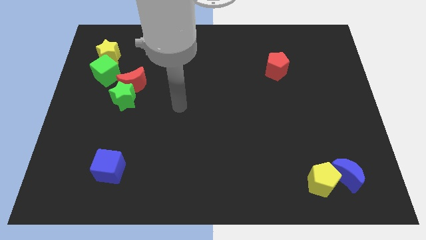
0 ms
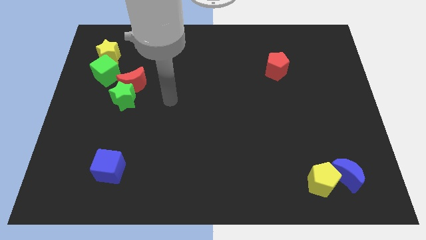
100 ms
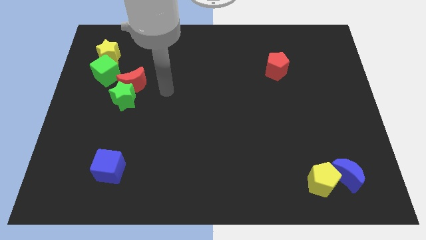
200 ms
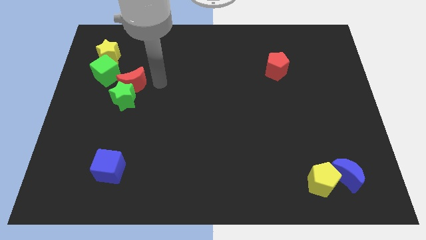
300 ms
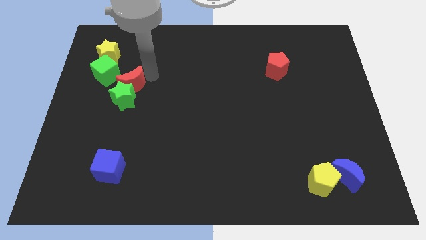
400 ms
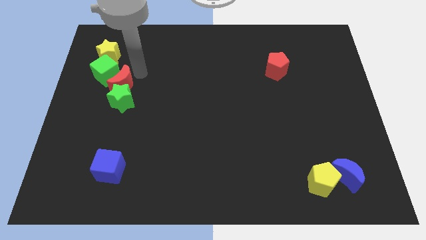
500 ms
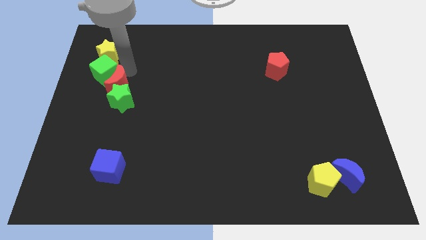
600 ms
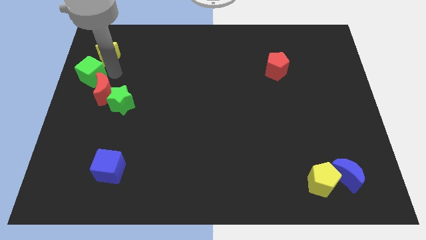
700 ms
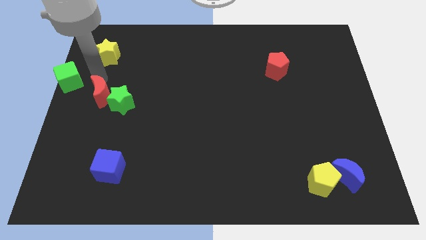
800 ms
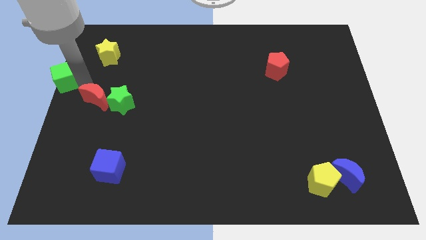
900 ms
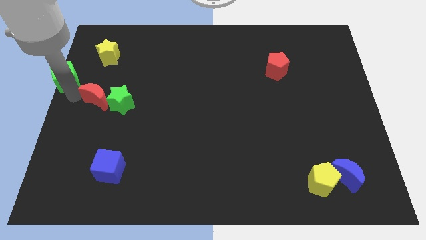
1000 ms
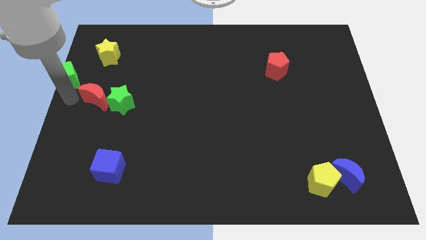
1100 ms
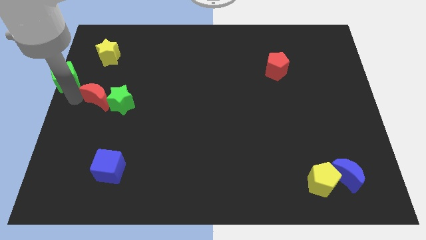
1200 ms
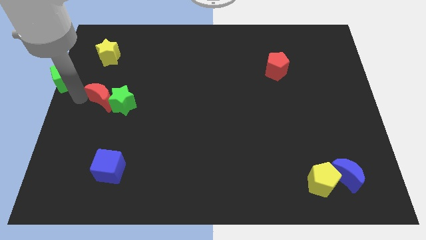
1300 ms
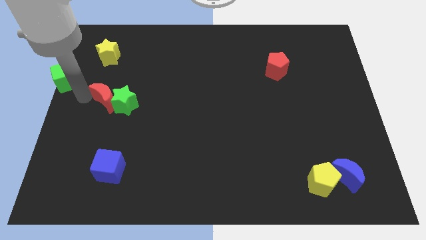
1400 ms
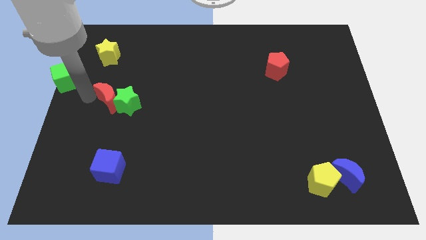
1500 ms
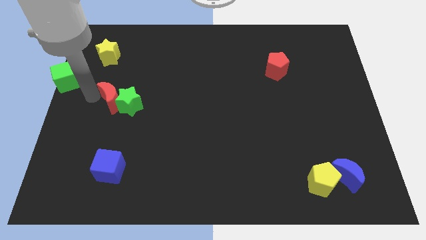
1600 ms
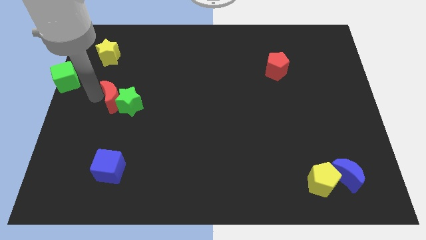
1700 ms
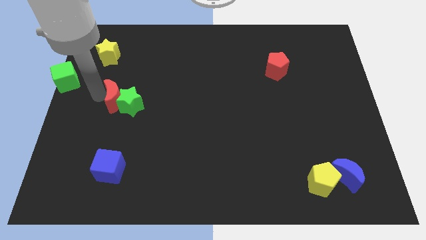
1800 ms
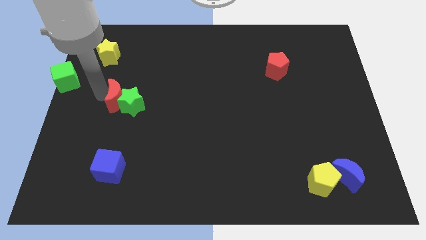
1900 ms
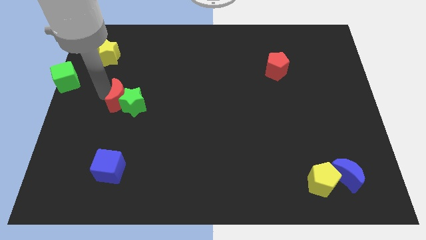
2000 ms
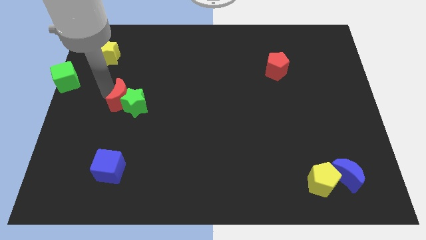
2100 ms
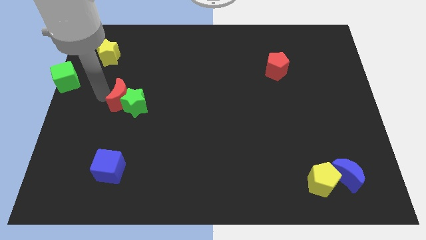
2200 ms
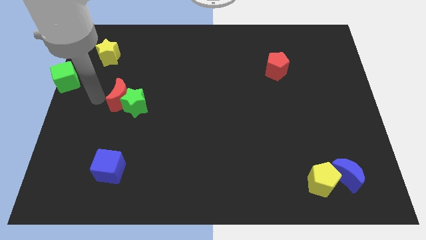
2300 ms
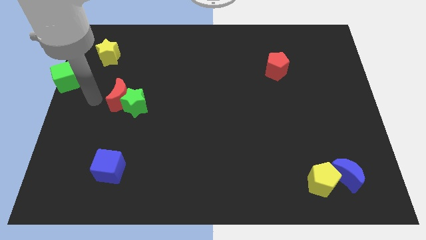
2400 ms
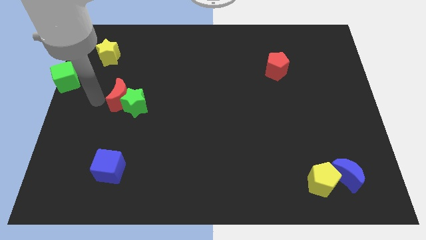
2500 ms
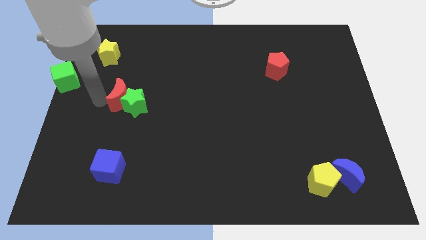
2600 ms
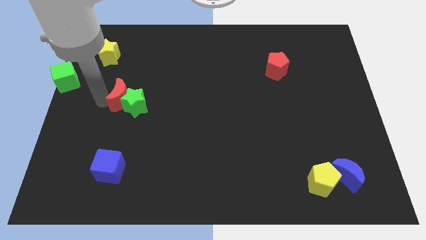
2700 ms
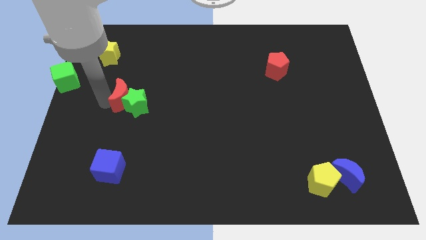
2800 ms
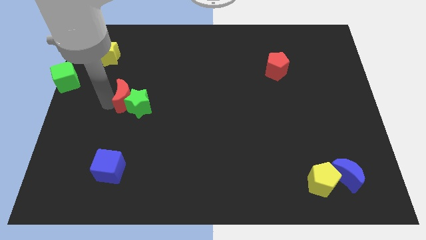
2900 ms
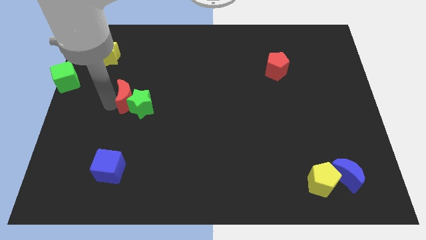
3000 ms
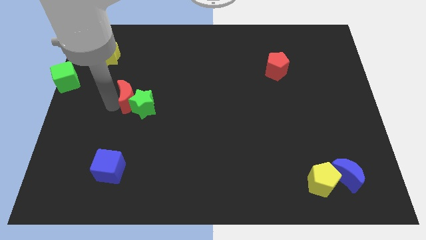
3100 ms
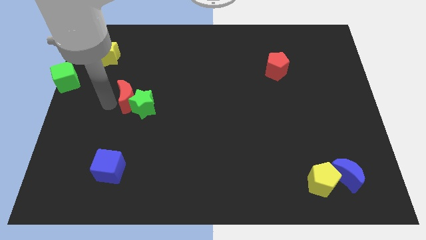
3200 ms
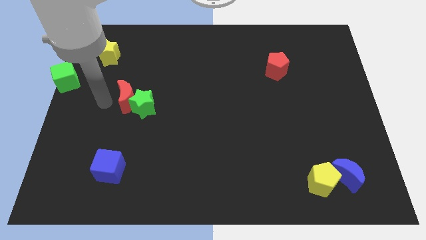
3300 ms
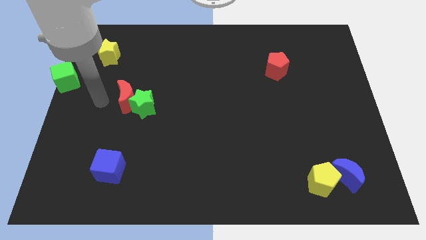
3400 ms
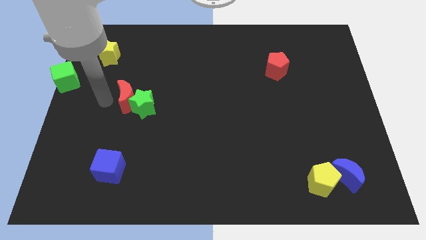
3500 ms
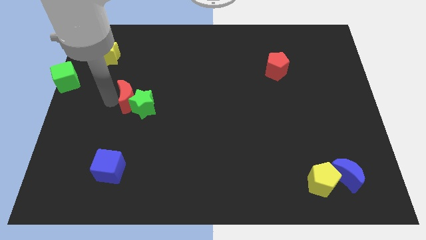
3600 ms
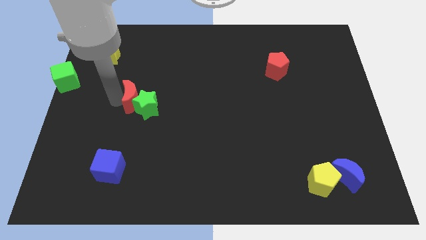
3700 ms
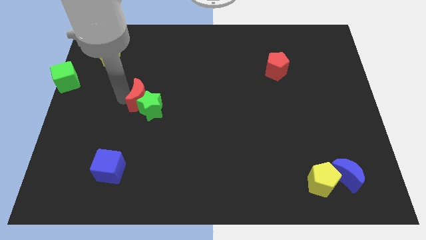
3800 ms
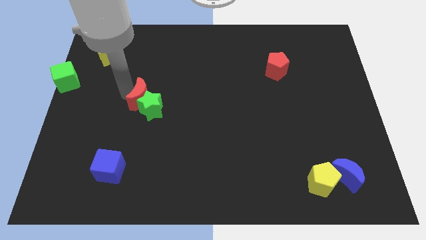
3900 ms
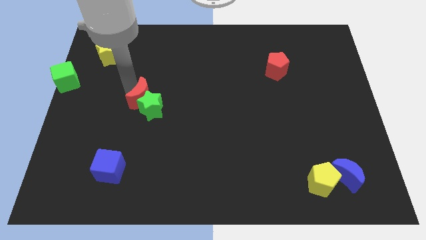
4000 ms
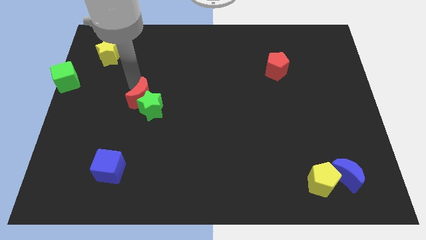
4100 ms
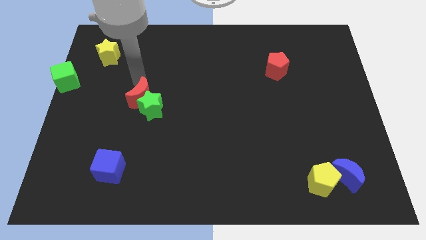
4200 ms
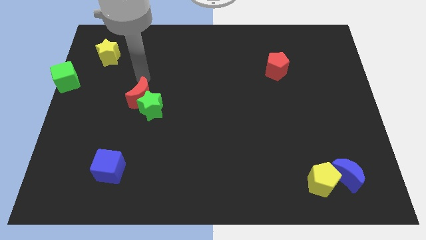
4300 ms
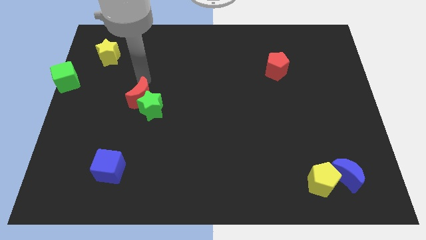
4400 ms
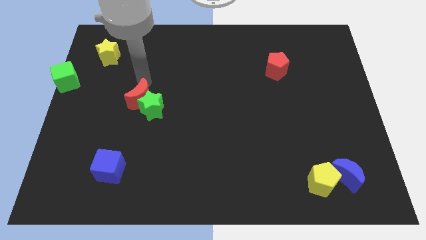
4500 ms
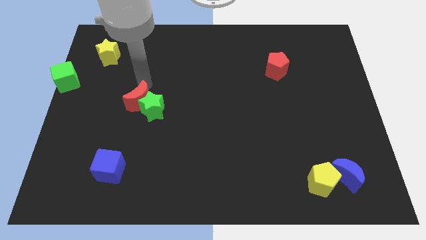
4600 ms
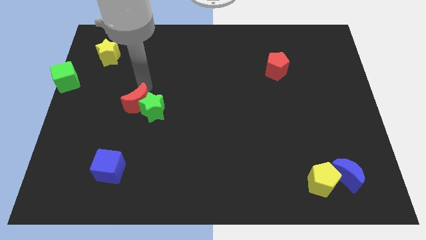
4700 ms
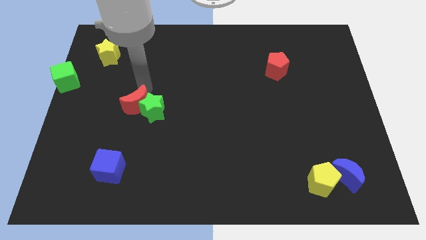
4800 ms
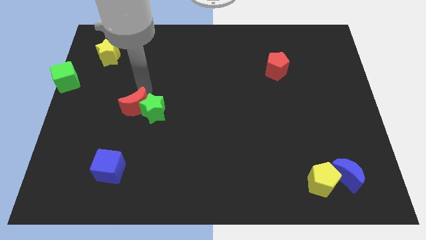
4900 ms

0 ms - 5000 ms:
move the red moon down a little bit

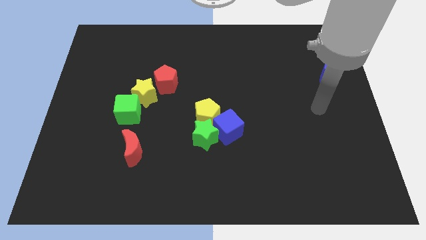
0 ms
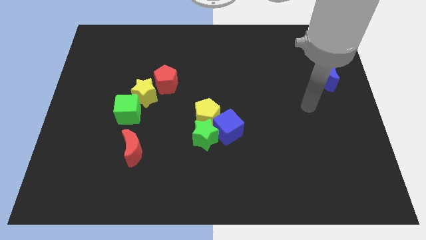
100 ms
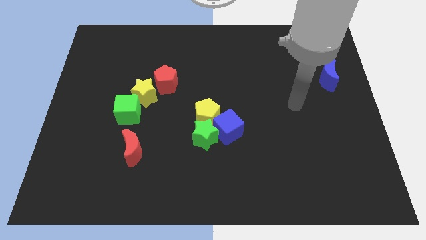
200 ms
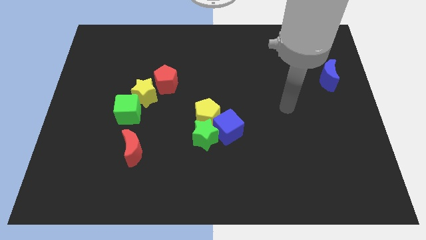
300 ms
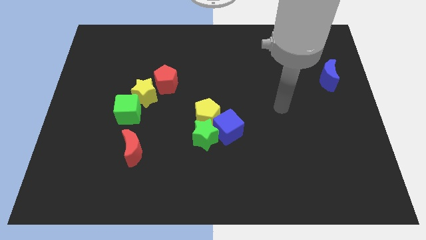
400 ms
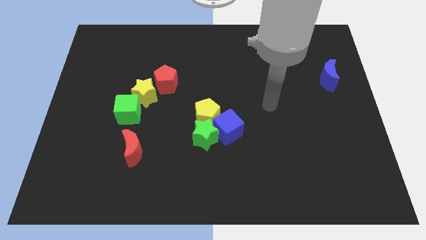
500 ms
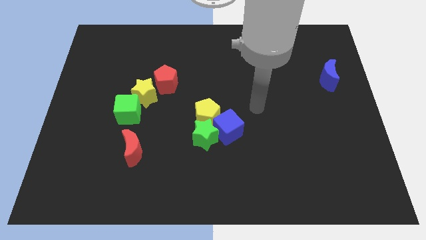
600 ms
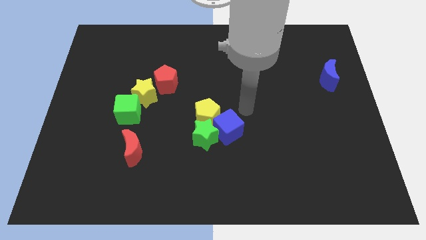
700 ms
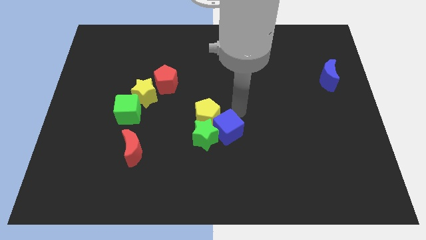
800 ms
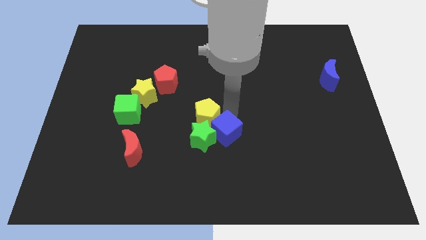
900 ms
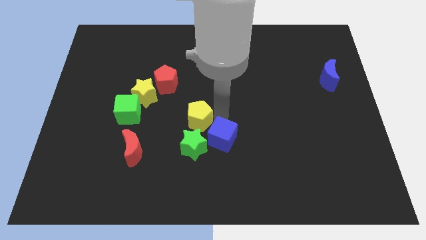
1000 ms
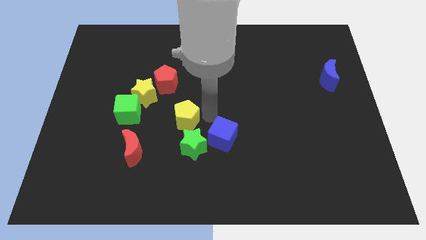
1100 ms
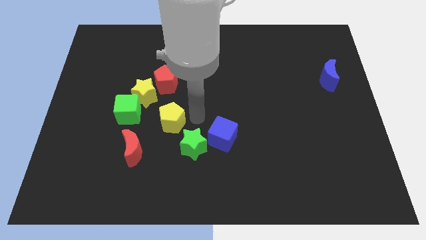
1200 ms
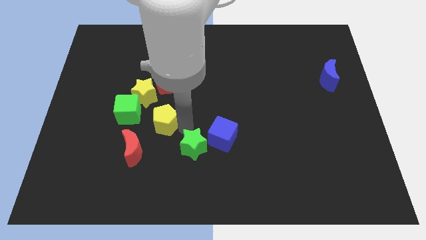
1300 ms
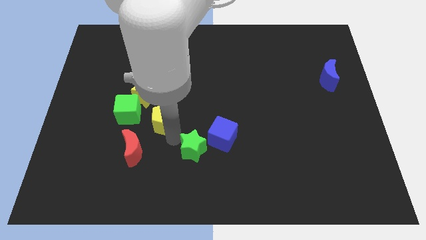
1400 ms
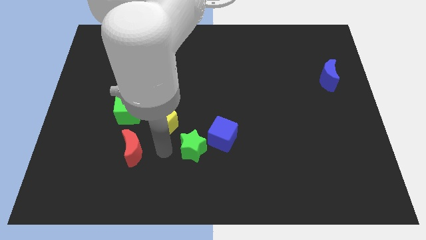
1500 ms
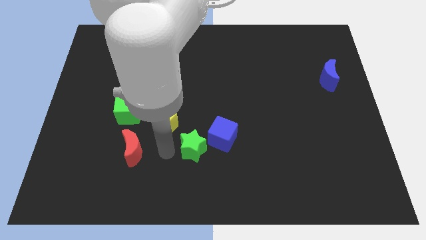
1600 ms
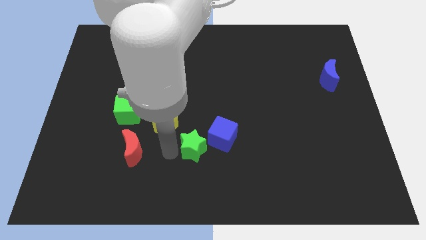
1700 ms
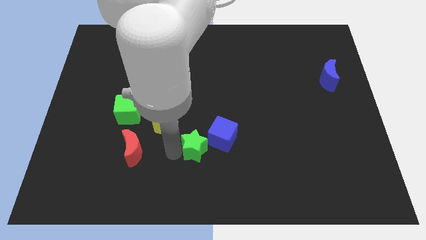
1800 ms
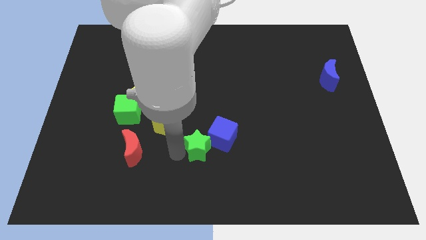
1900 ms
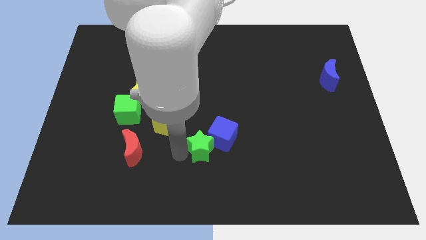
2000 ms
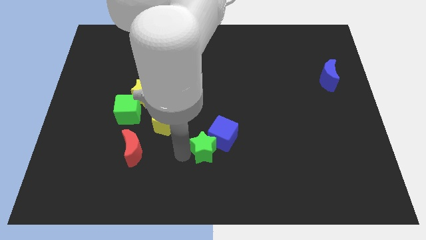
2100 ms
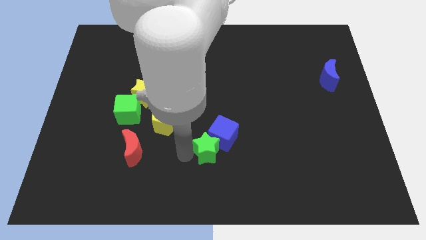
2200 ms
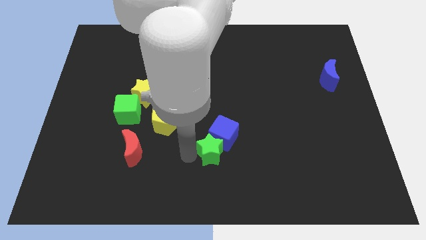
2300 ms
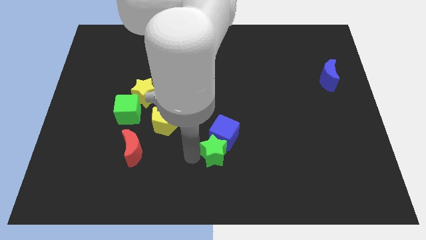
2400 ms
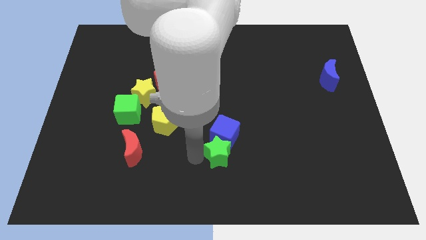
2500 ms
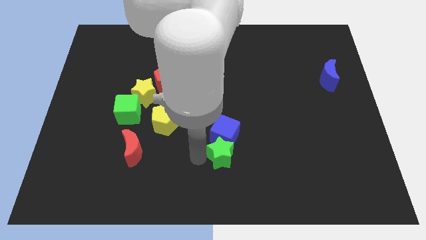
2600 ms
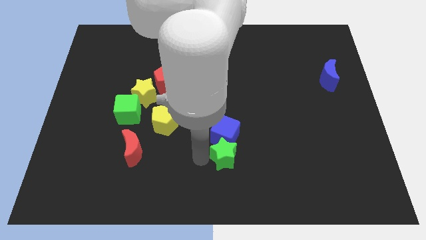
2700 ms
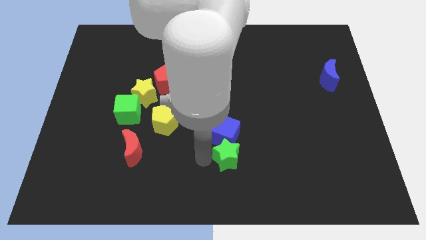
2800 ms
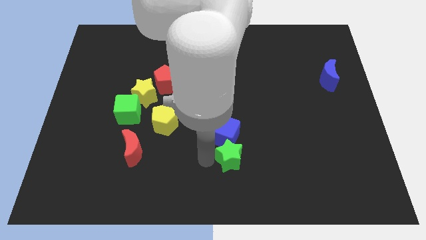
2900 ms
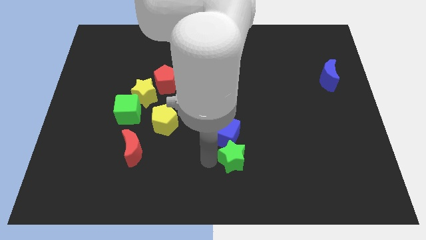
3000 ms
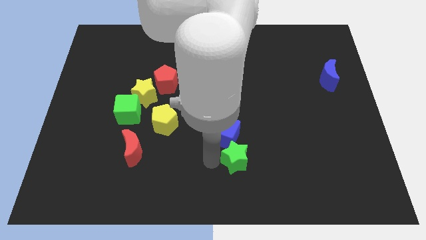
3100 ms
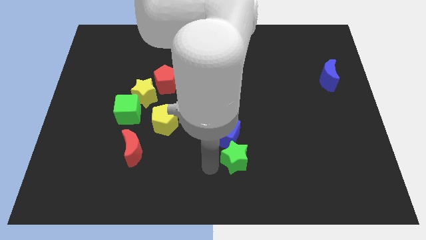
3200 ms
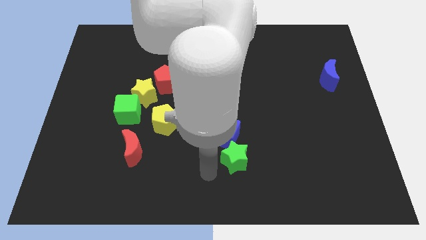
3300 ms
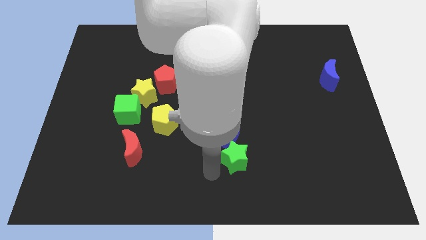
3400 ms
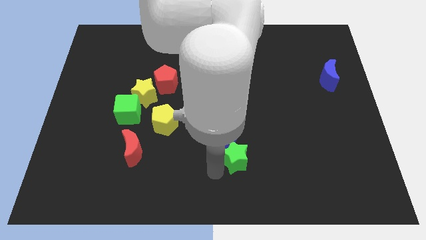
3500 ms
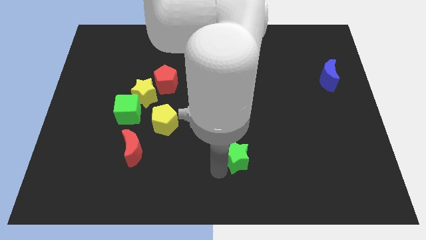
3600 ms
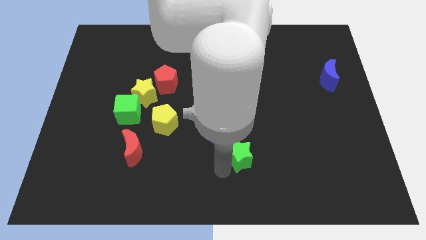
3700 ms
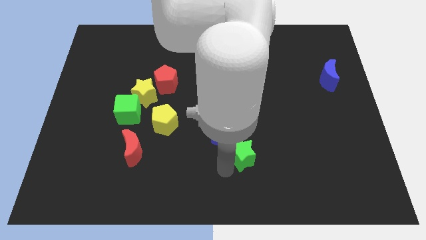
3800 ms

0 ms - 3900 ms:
move the green star somewhat right
